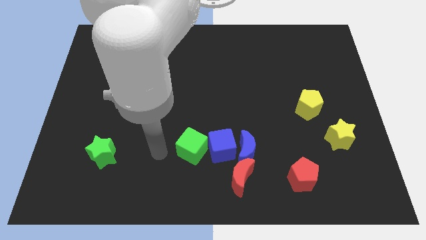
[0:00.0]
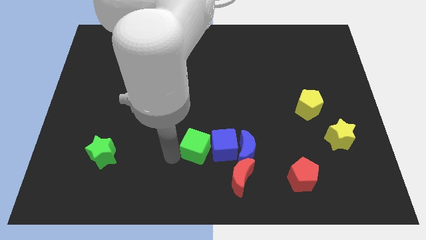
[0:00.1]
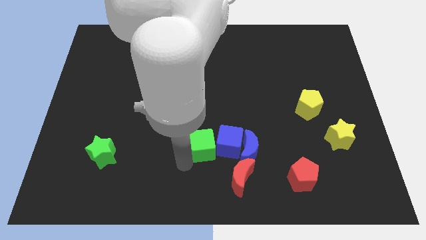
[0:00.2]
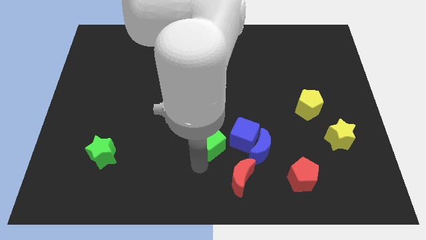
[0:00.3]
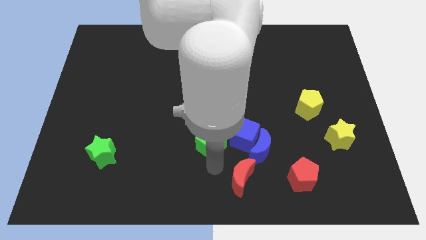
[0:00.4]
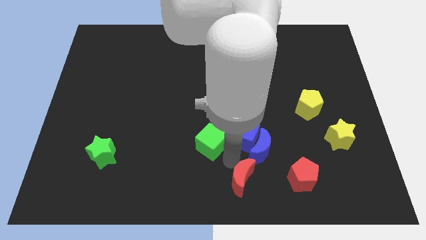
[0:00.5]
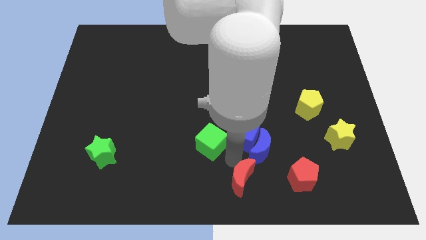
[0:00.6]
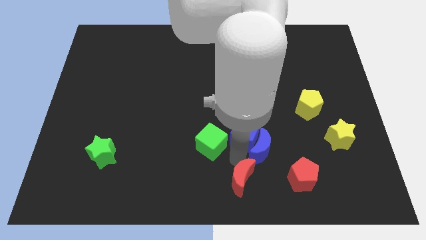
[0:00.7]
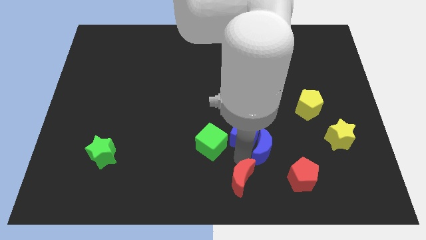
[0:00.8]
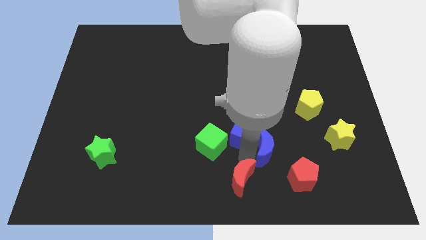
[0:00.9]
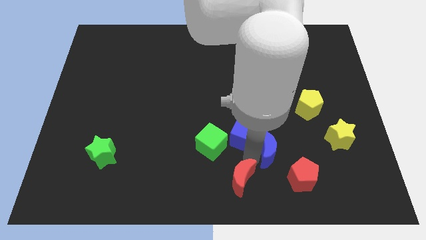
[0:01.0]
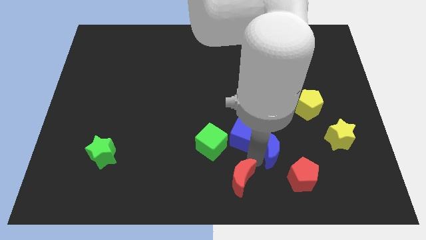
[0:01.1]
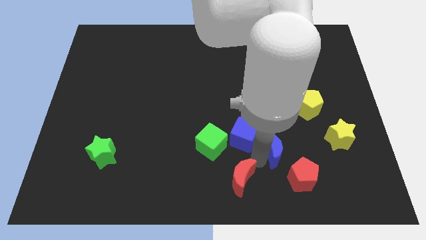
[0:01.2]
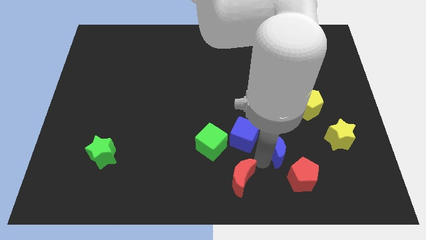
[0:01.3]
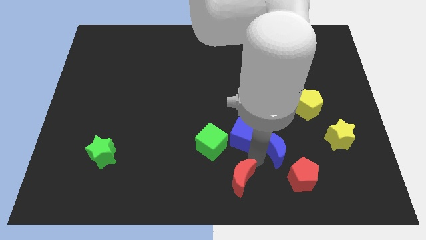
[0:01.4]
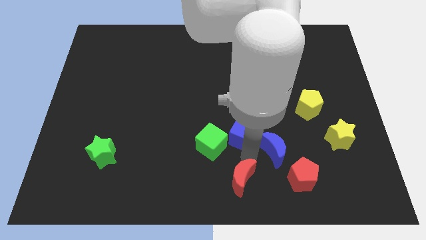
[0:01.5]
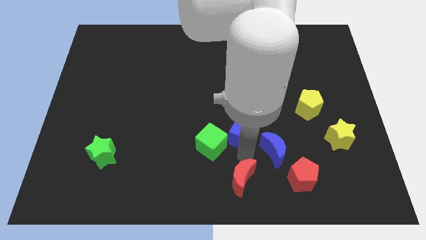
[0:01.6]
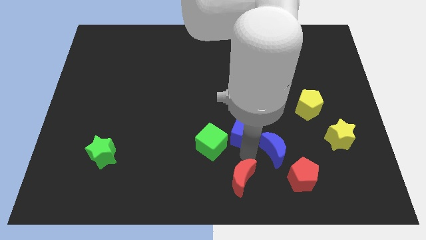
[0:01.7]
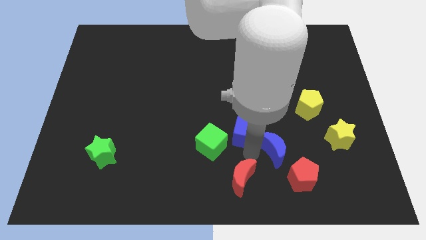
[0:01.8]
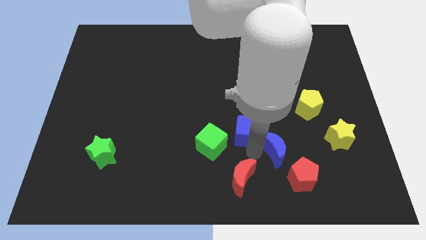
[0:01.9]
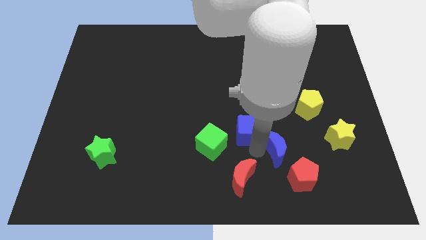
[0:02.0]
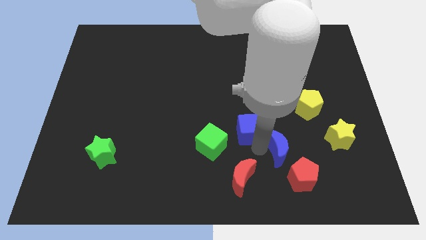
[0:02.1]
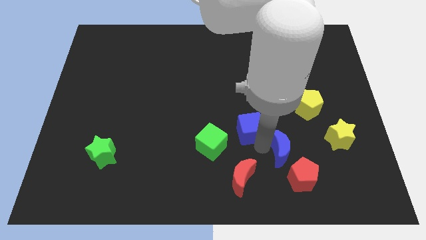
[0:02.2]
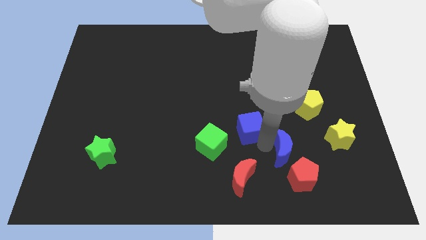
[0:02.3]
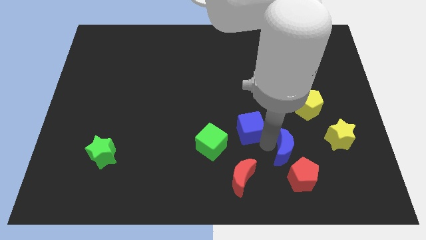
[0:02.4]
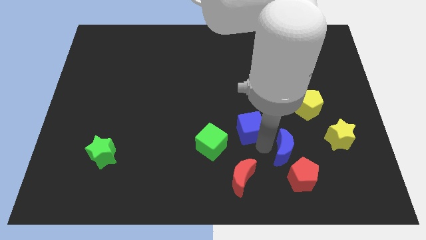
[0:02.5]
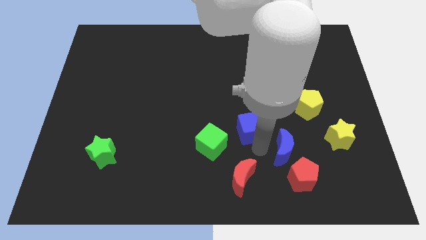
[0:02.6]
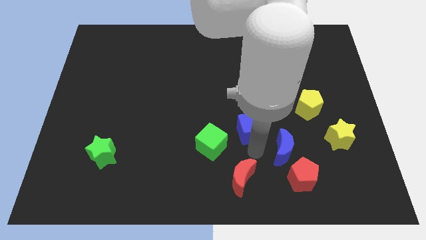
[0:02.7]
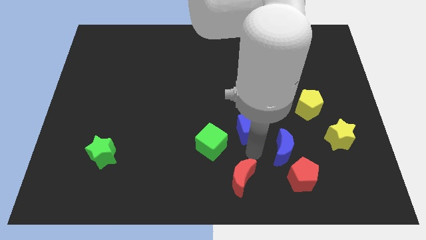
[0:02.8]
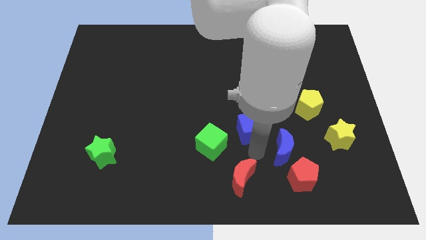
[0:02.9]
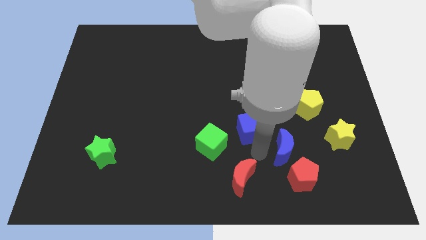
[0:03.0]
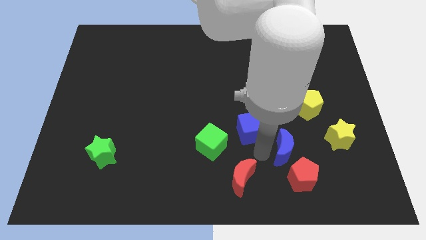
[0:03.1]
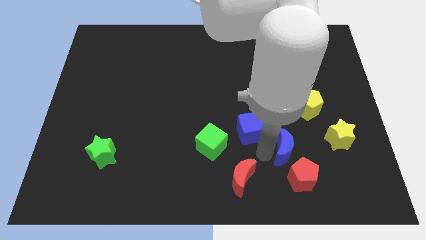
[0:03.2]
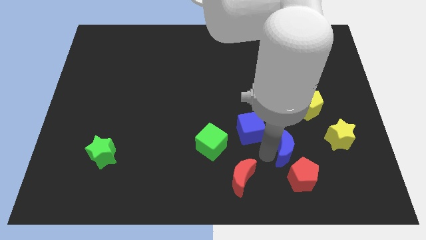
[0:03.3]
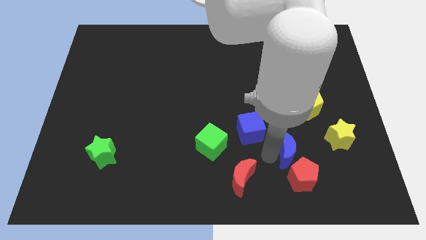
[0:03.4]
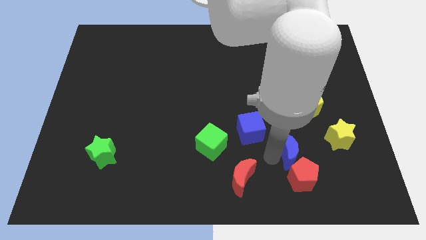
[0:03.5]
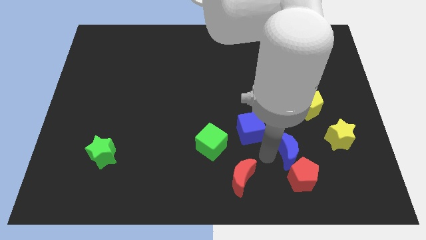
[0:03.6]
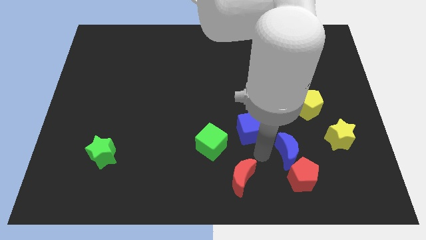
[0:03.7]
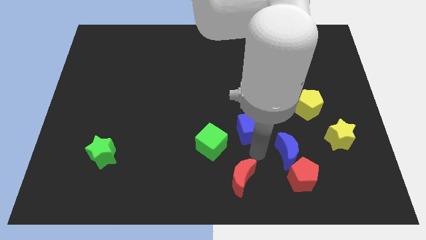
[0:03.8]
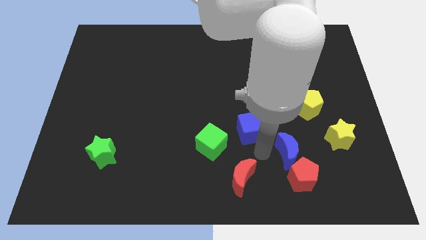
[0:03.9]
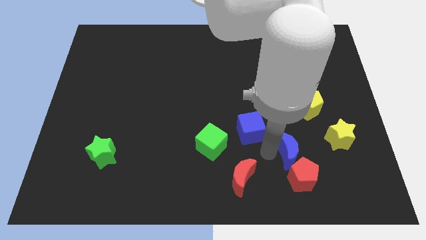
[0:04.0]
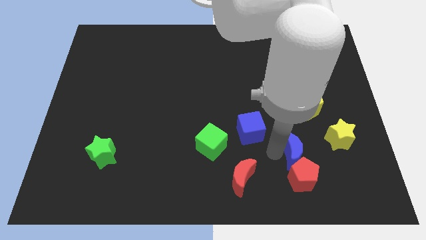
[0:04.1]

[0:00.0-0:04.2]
move the blue moon away from the blue cube and red moon

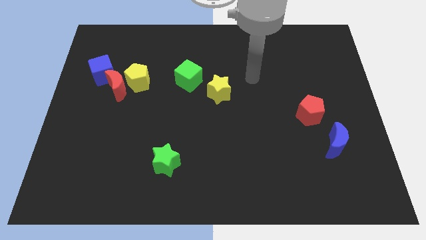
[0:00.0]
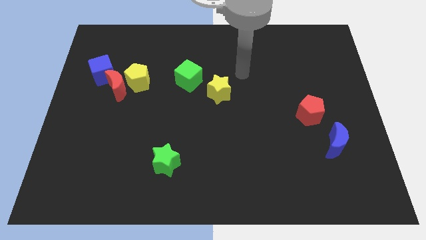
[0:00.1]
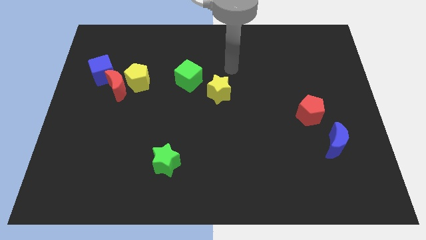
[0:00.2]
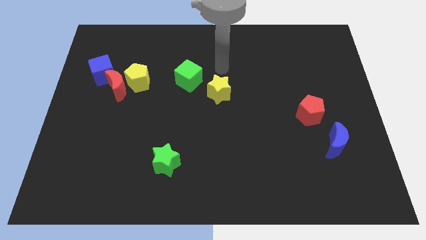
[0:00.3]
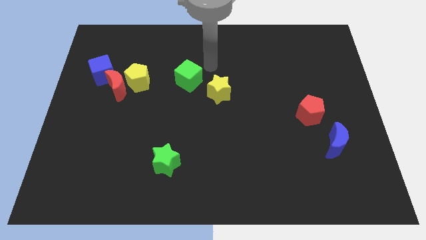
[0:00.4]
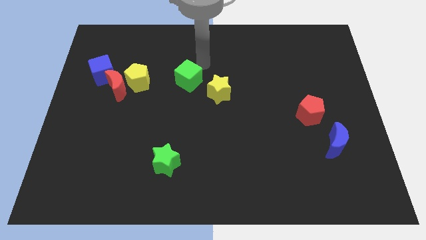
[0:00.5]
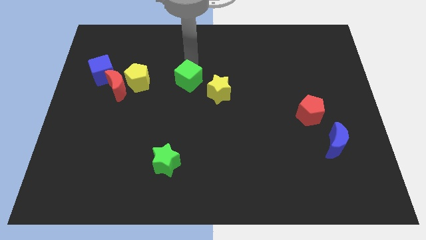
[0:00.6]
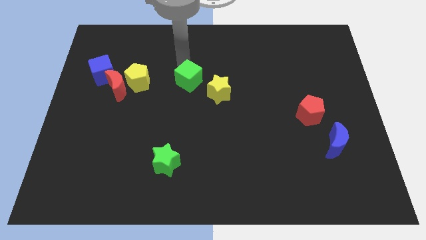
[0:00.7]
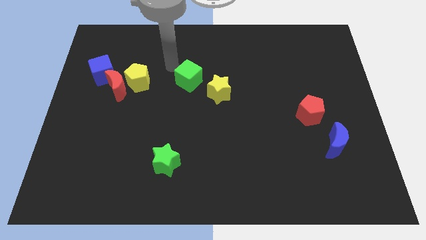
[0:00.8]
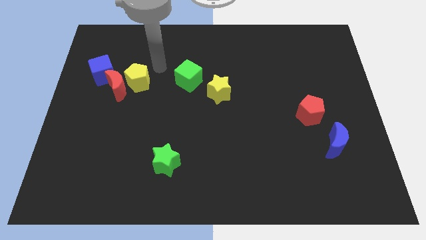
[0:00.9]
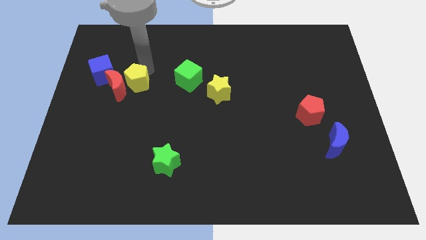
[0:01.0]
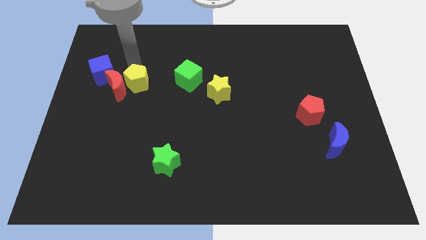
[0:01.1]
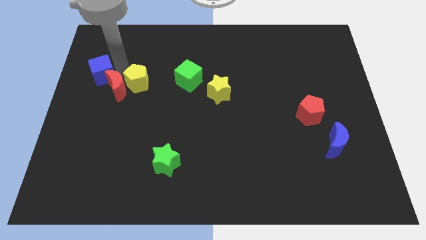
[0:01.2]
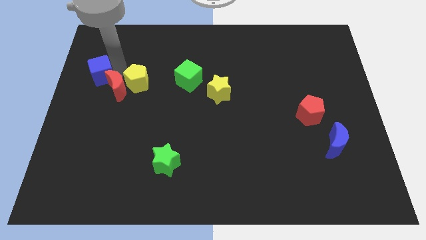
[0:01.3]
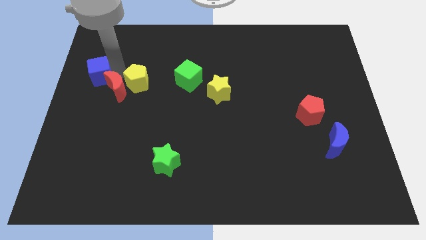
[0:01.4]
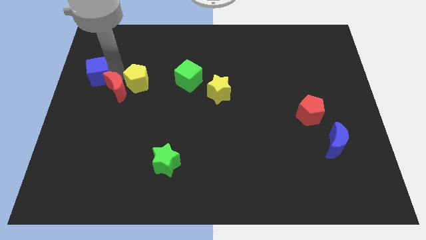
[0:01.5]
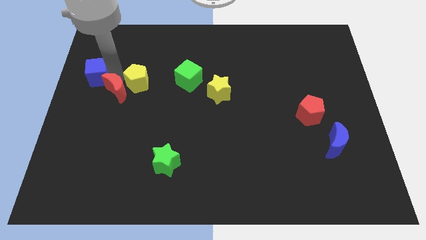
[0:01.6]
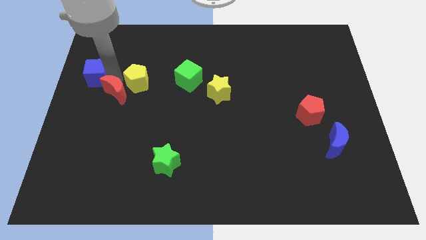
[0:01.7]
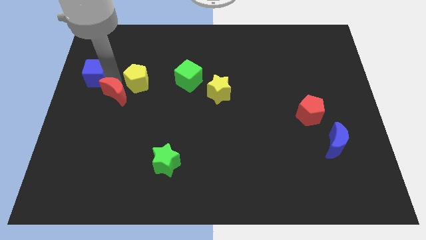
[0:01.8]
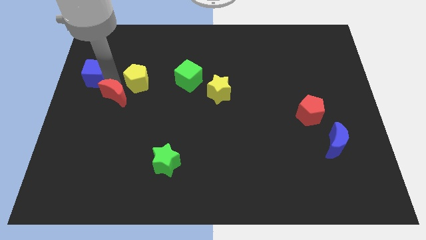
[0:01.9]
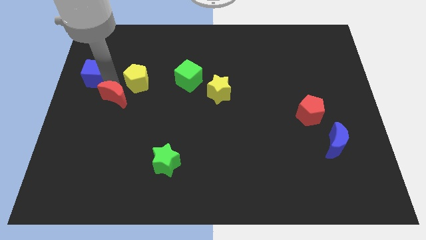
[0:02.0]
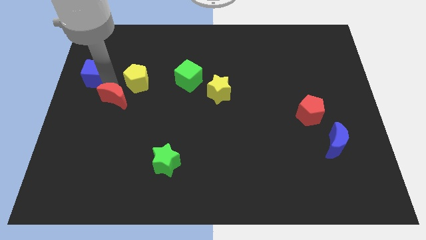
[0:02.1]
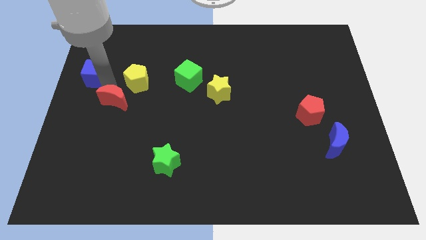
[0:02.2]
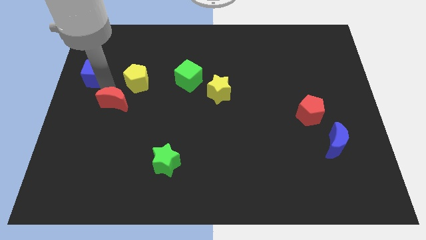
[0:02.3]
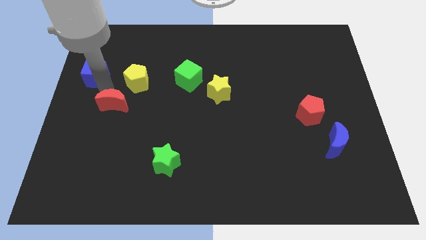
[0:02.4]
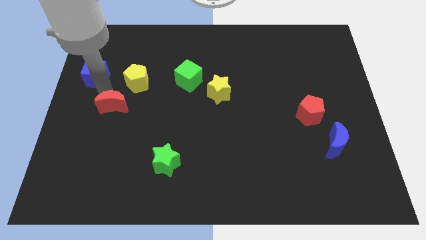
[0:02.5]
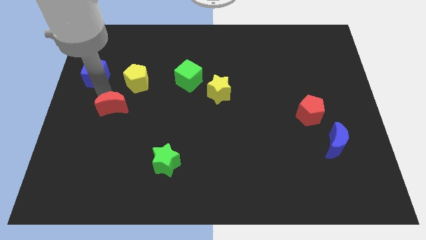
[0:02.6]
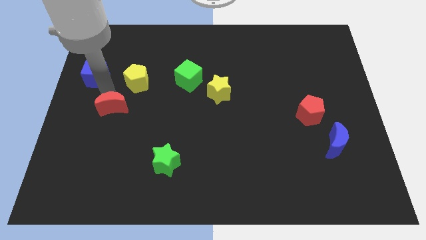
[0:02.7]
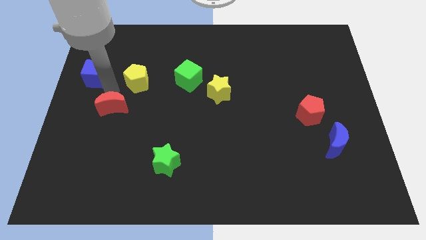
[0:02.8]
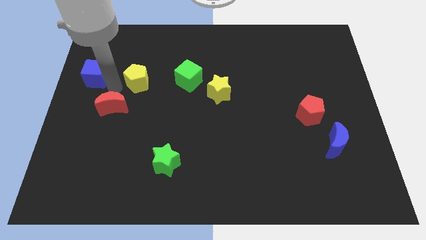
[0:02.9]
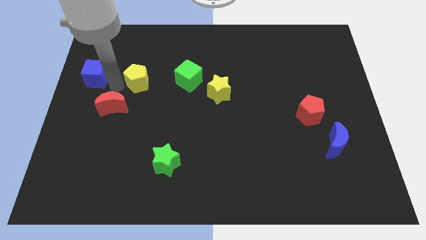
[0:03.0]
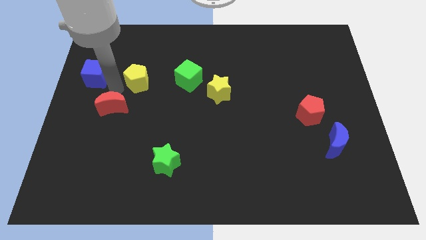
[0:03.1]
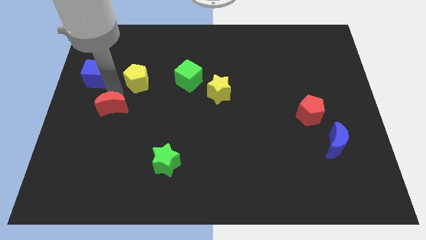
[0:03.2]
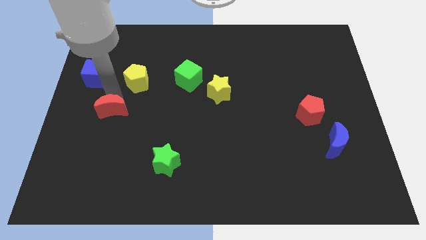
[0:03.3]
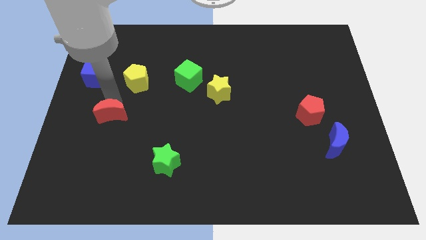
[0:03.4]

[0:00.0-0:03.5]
move the red moon away from the yellow pentagon and blue cube

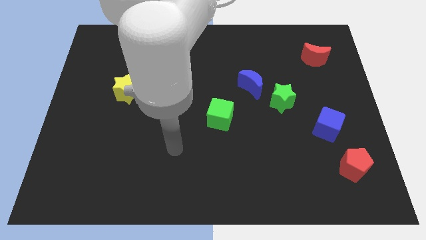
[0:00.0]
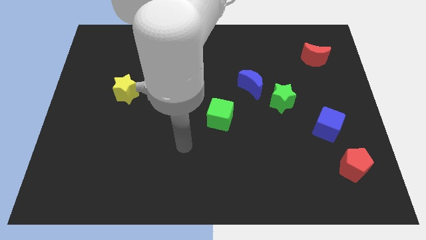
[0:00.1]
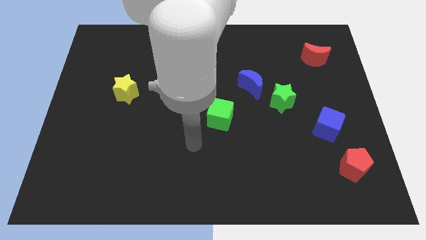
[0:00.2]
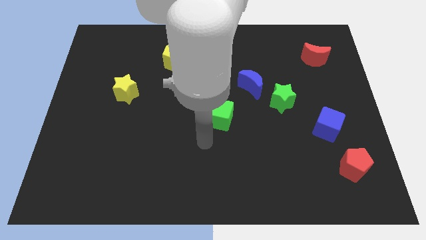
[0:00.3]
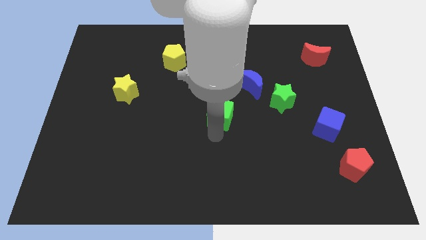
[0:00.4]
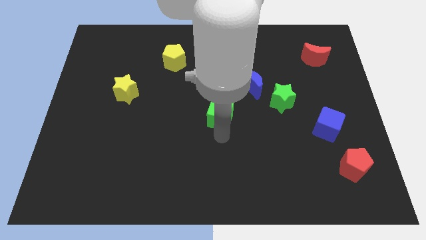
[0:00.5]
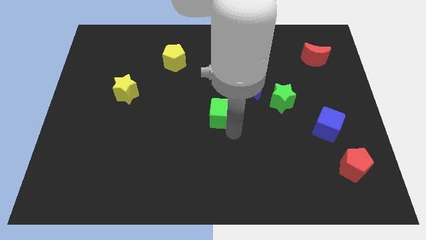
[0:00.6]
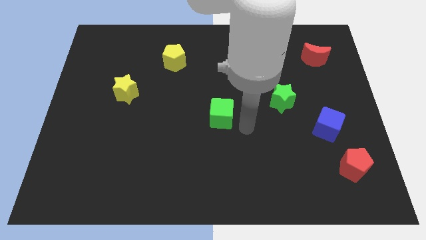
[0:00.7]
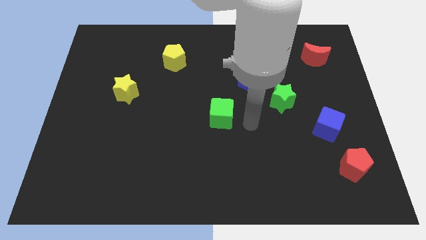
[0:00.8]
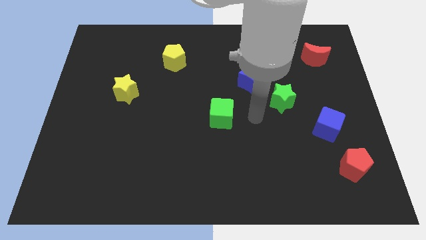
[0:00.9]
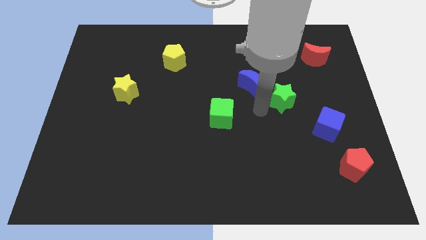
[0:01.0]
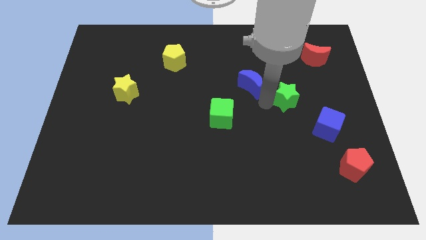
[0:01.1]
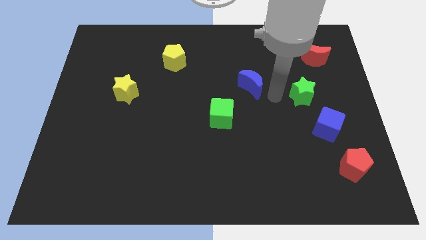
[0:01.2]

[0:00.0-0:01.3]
separate the blue moon from the green star

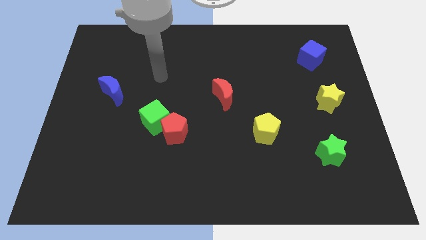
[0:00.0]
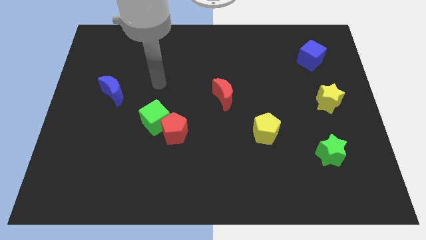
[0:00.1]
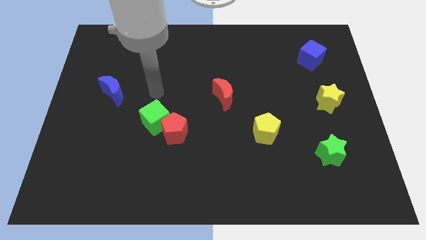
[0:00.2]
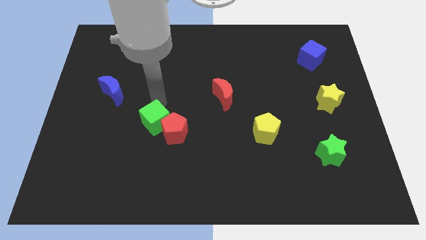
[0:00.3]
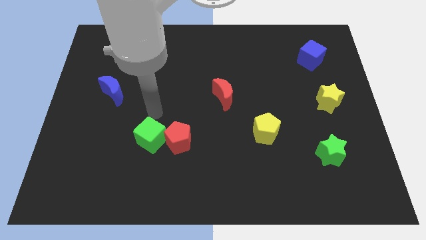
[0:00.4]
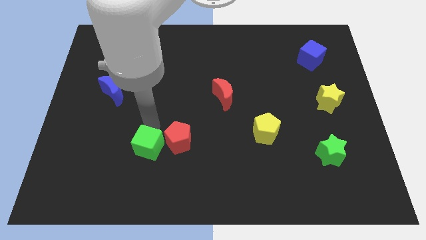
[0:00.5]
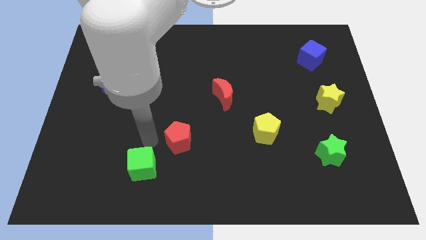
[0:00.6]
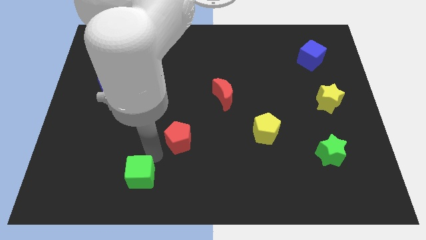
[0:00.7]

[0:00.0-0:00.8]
separate the red pentagon from the green cube
